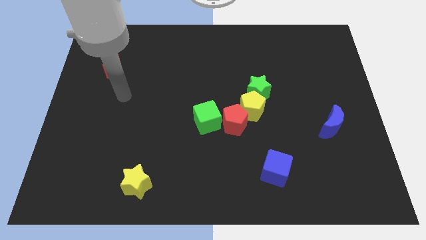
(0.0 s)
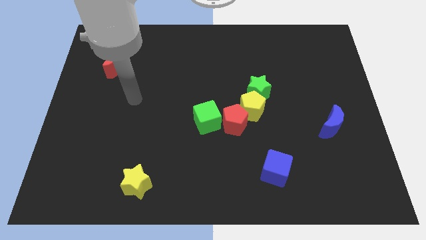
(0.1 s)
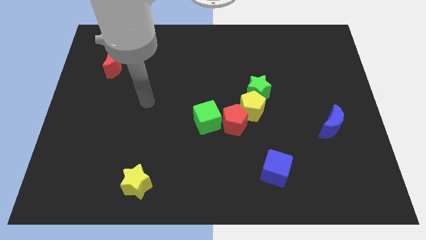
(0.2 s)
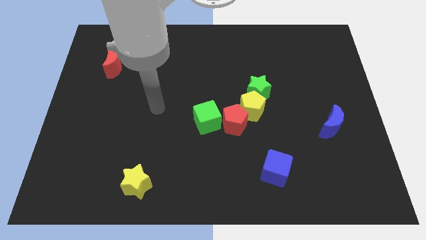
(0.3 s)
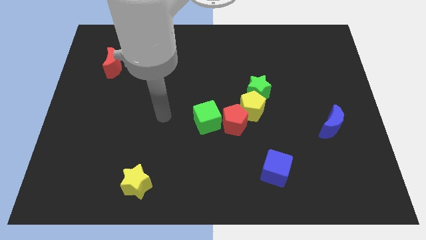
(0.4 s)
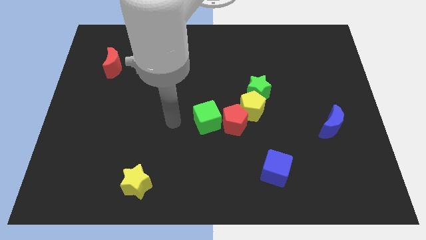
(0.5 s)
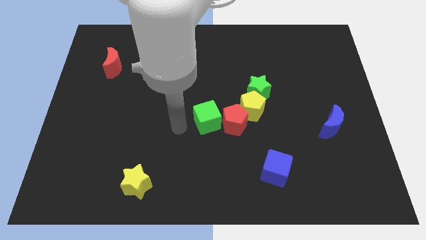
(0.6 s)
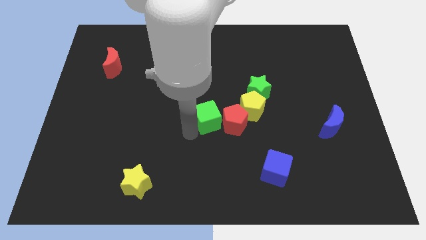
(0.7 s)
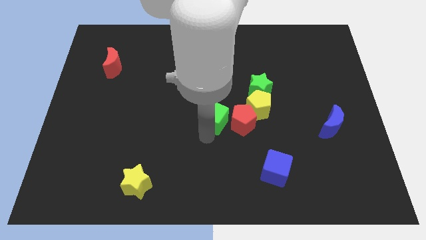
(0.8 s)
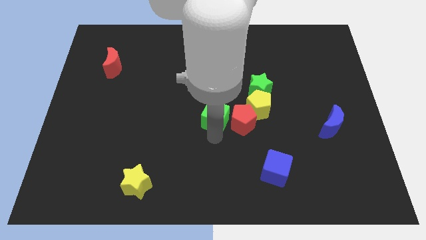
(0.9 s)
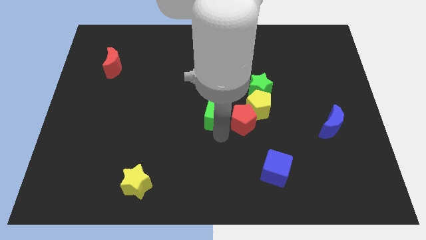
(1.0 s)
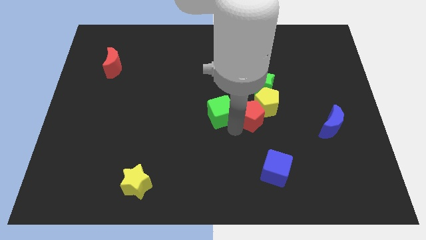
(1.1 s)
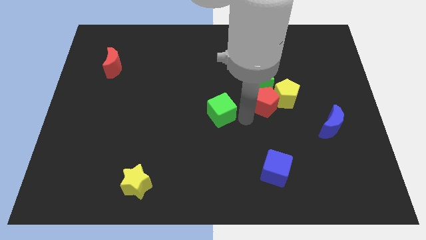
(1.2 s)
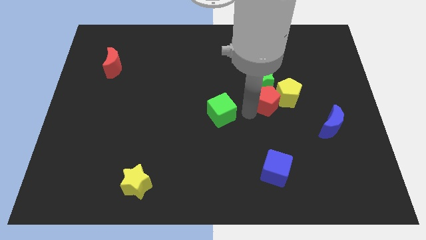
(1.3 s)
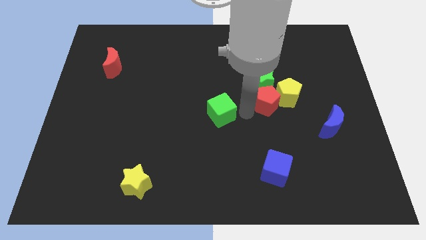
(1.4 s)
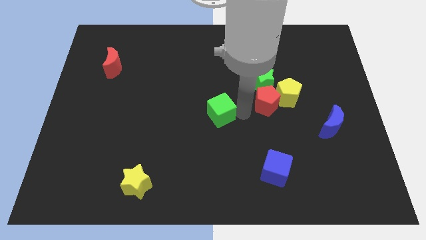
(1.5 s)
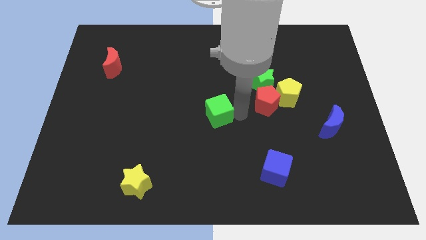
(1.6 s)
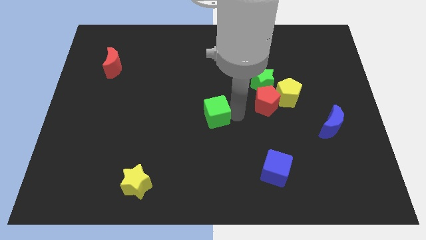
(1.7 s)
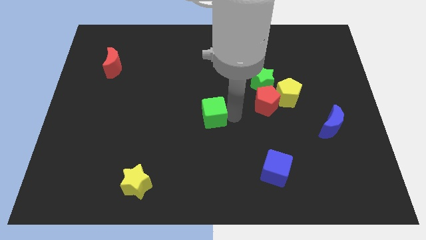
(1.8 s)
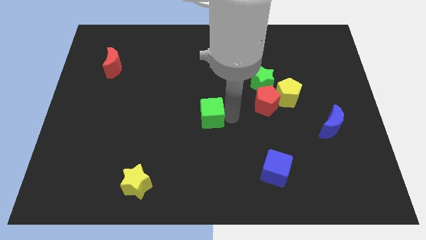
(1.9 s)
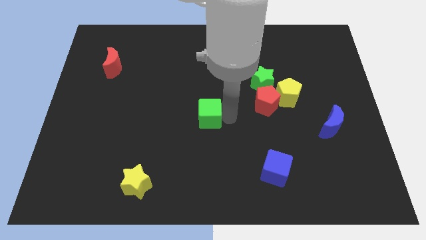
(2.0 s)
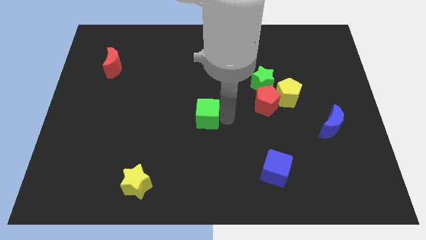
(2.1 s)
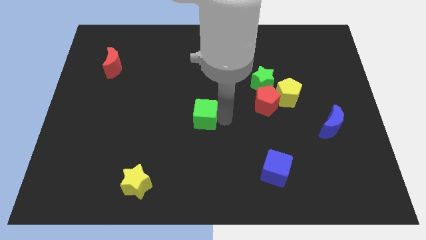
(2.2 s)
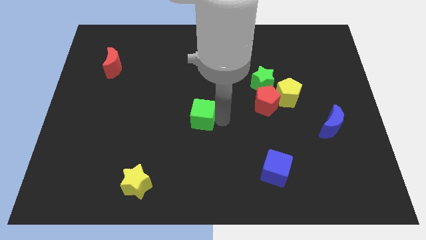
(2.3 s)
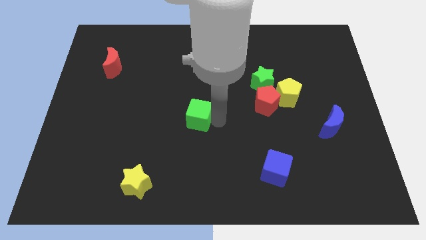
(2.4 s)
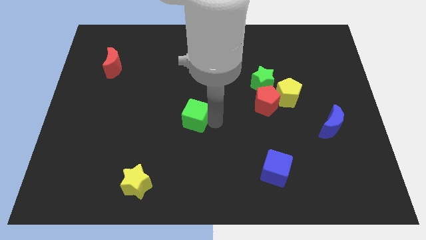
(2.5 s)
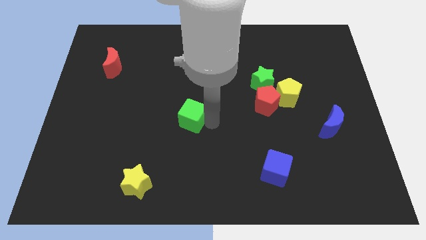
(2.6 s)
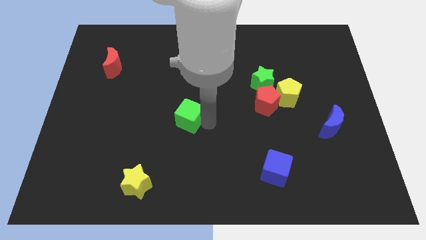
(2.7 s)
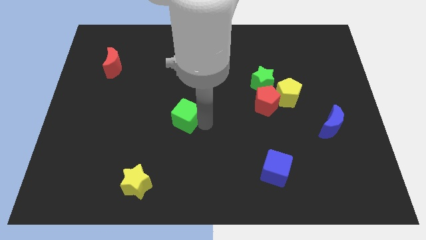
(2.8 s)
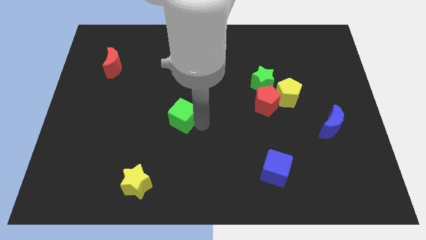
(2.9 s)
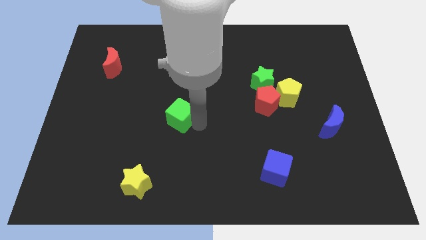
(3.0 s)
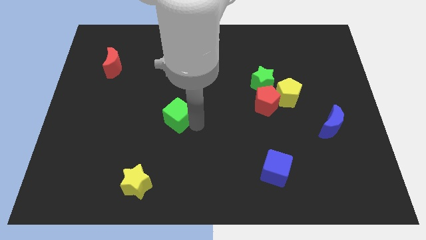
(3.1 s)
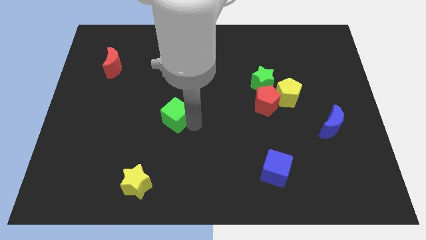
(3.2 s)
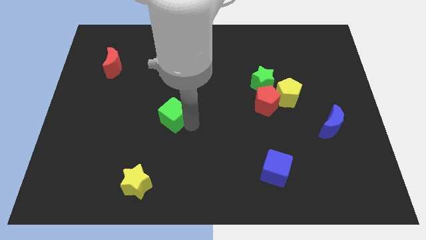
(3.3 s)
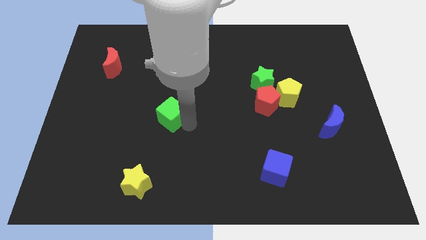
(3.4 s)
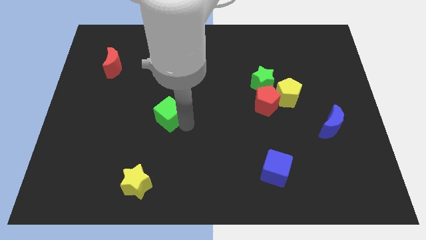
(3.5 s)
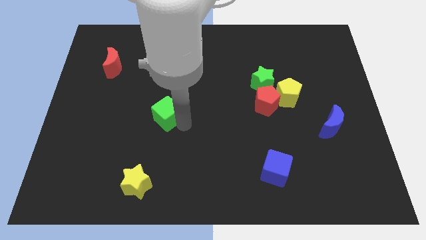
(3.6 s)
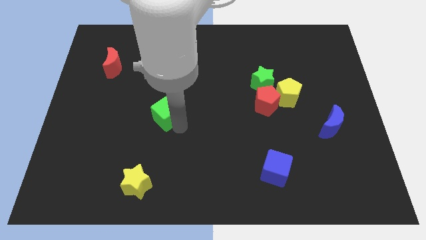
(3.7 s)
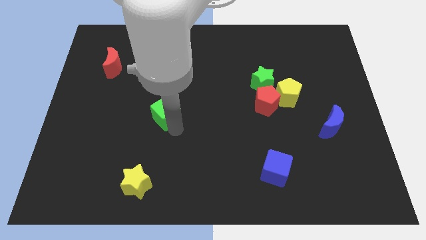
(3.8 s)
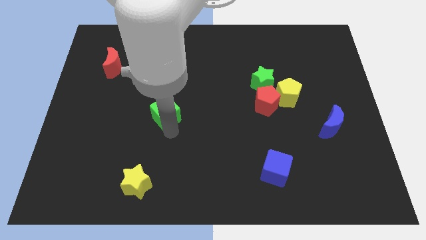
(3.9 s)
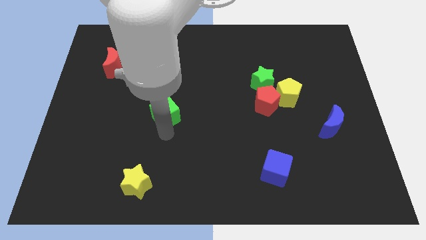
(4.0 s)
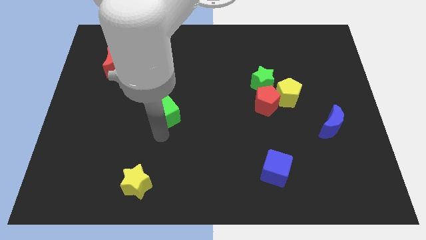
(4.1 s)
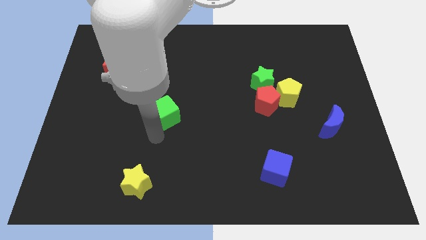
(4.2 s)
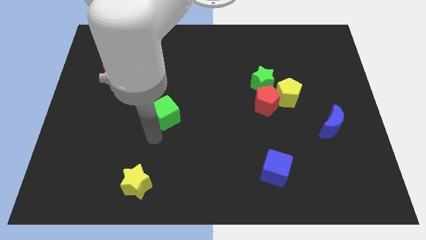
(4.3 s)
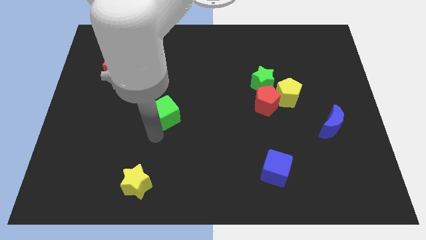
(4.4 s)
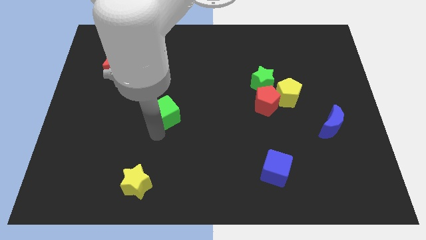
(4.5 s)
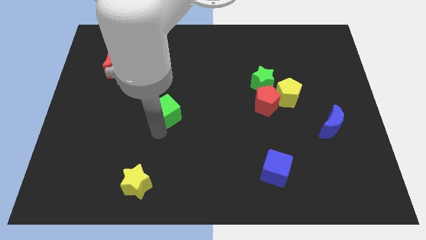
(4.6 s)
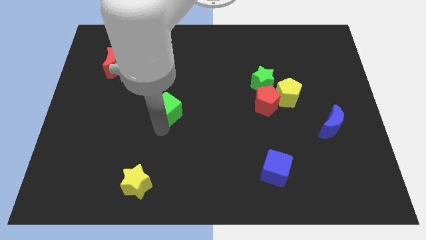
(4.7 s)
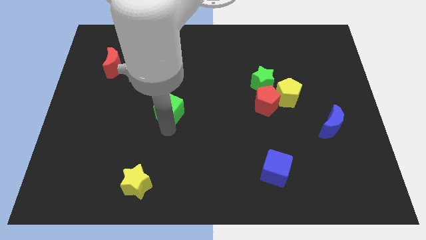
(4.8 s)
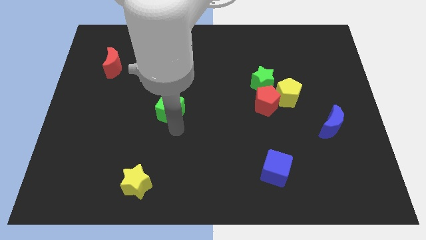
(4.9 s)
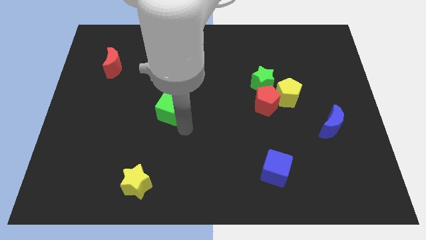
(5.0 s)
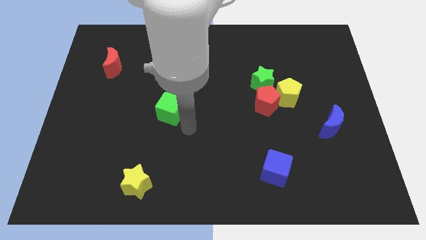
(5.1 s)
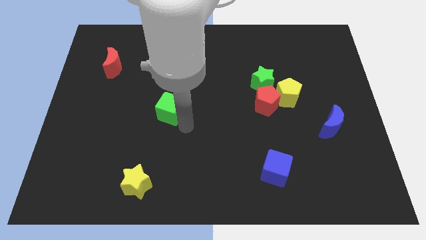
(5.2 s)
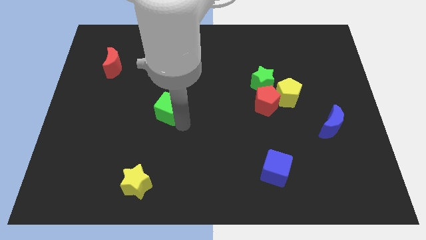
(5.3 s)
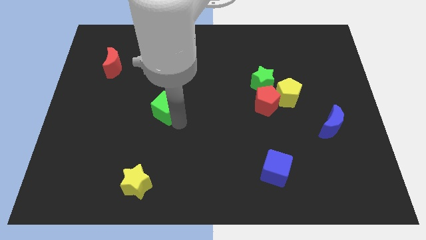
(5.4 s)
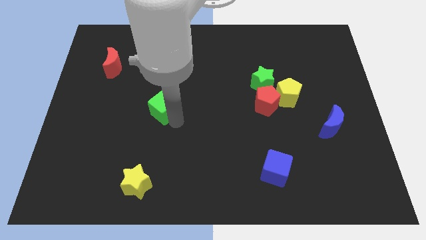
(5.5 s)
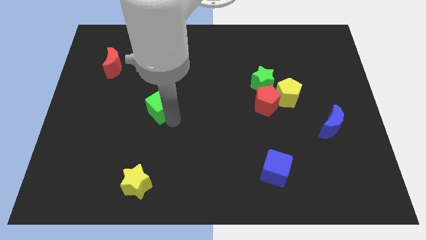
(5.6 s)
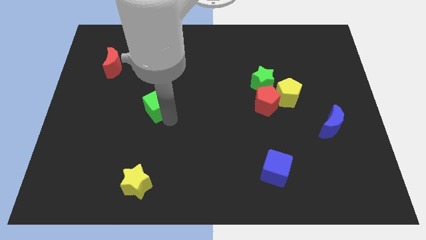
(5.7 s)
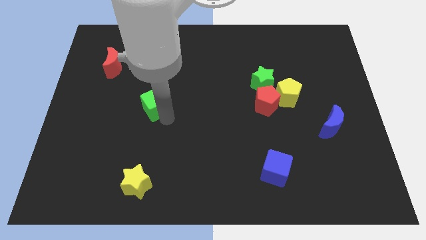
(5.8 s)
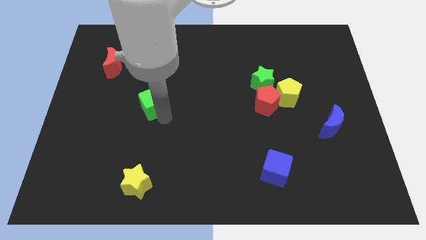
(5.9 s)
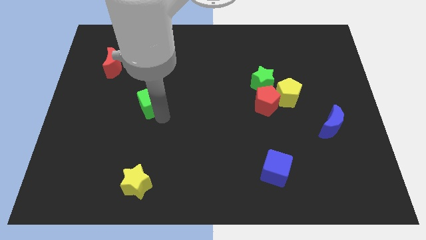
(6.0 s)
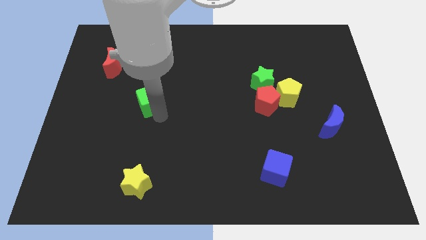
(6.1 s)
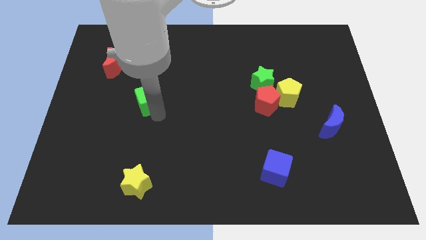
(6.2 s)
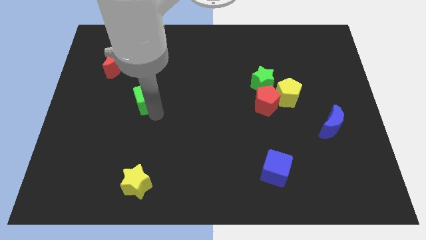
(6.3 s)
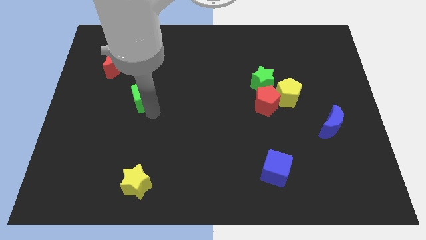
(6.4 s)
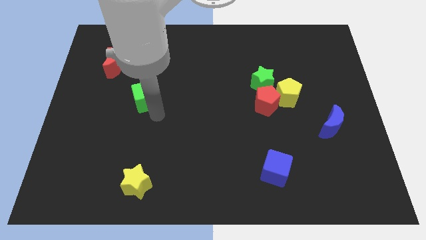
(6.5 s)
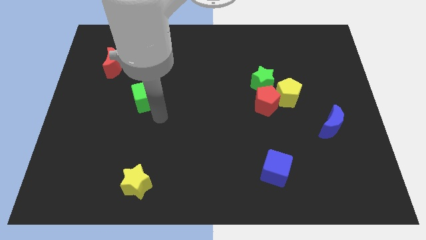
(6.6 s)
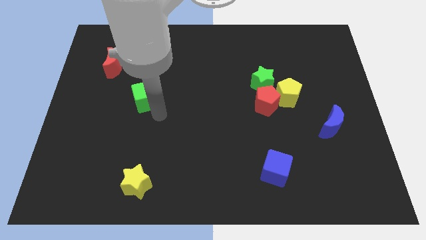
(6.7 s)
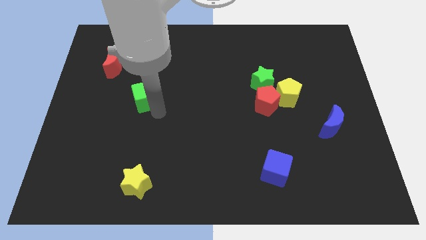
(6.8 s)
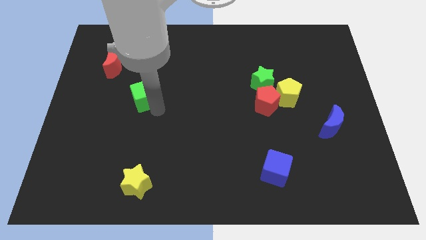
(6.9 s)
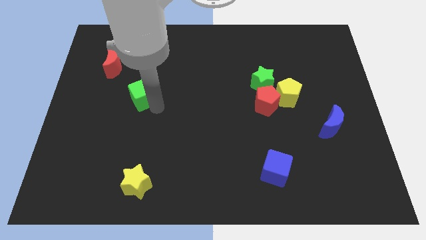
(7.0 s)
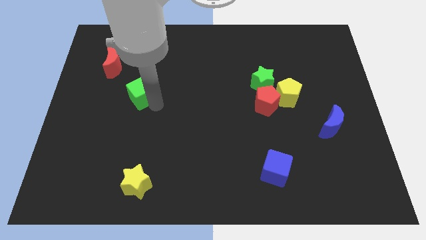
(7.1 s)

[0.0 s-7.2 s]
put the green cube diagonally down and to the right of the red moon
